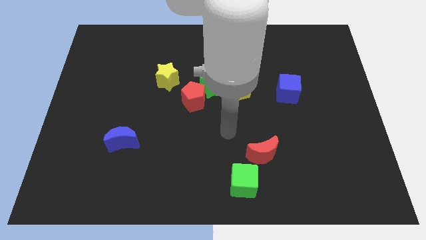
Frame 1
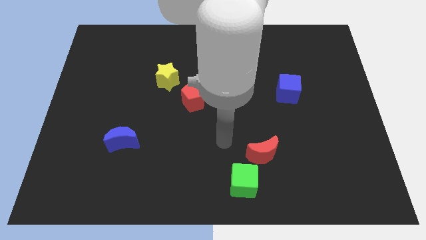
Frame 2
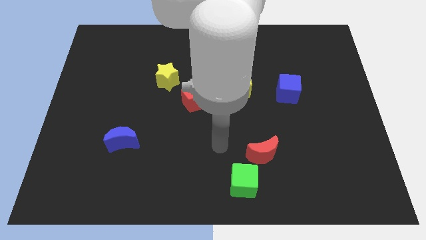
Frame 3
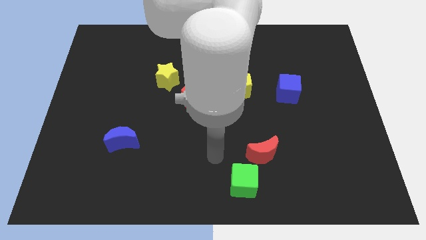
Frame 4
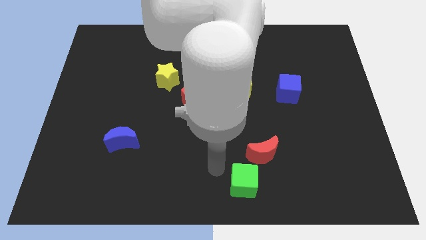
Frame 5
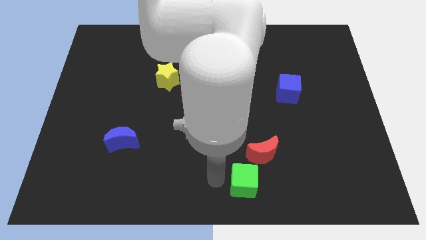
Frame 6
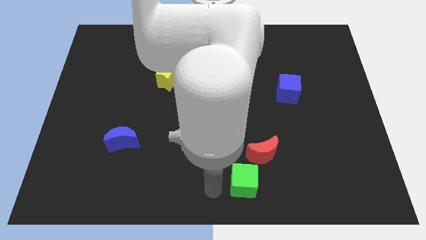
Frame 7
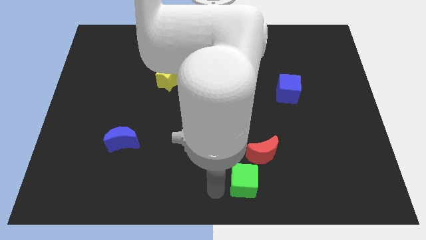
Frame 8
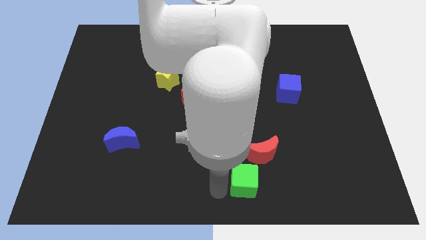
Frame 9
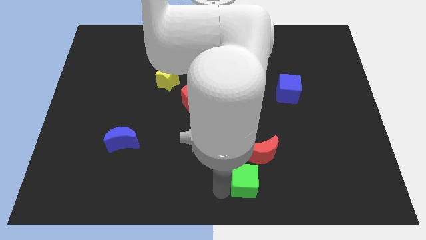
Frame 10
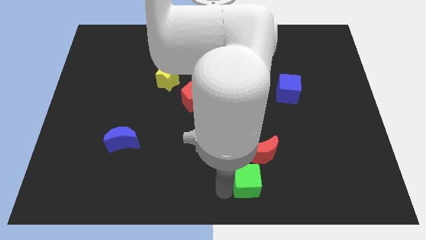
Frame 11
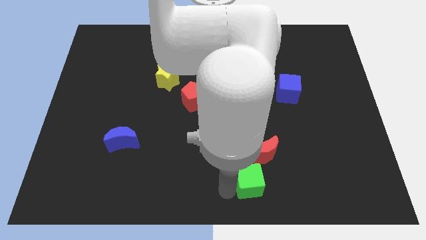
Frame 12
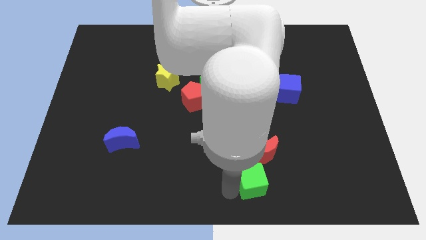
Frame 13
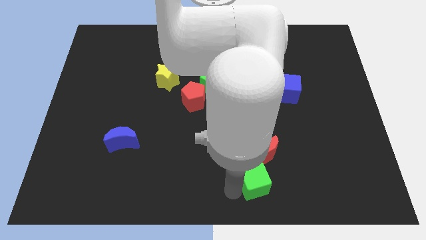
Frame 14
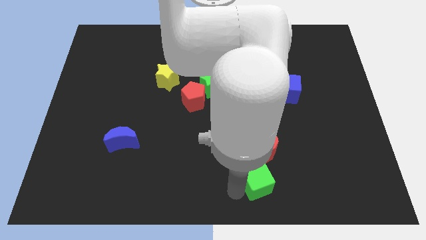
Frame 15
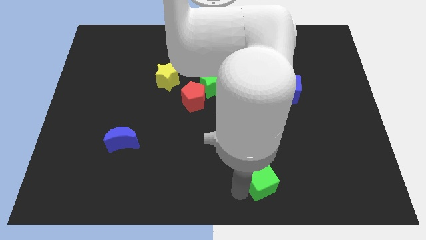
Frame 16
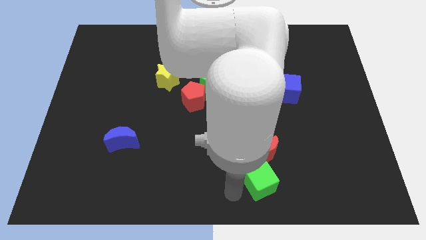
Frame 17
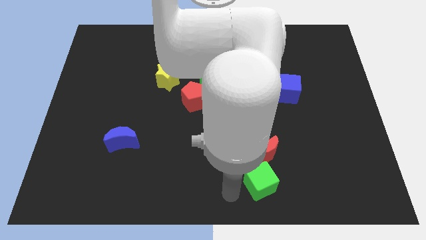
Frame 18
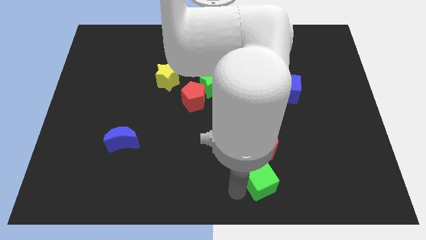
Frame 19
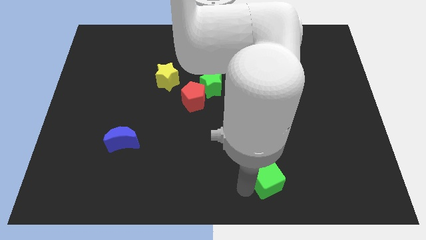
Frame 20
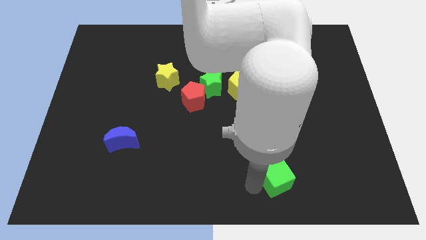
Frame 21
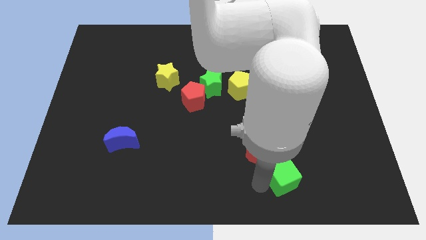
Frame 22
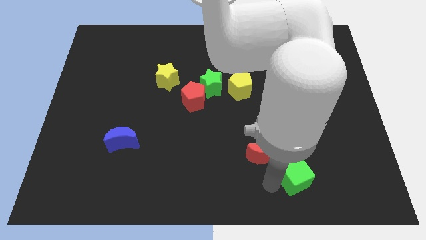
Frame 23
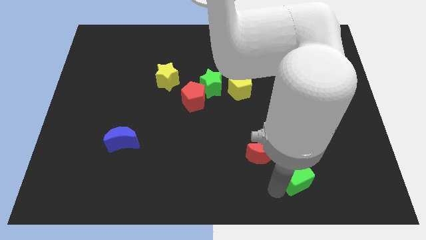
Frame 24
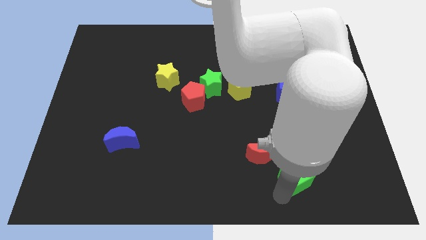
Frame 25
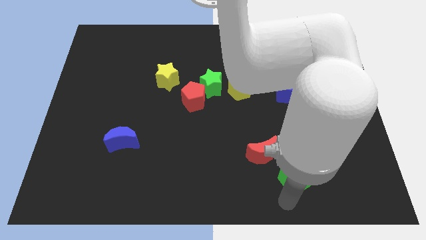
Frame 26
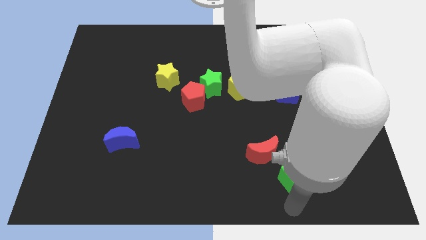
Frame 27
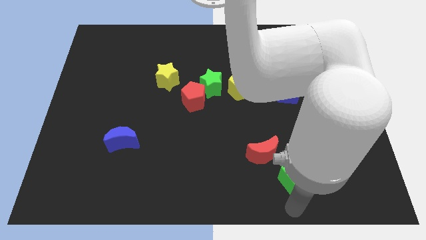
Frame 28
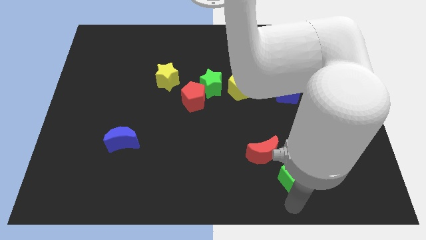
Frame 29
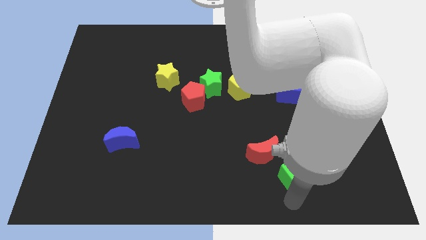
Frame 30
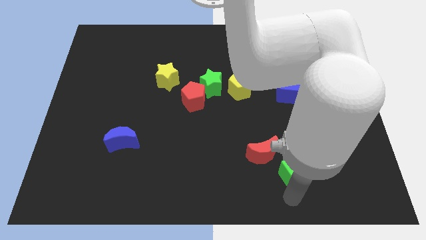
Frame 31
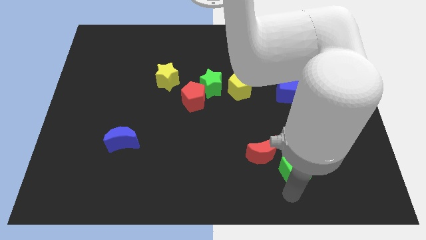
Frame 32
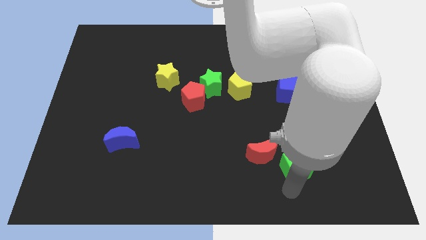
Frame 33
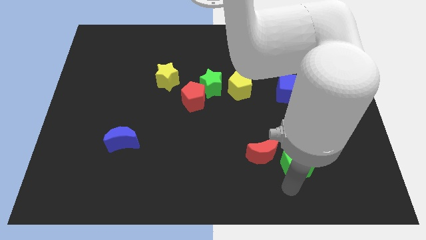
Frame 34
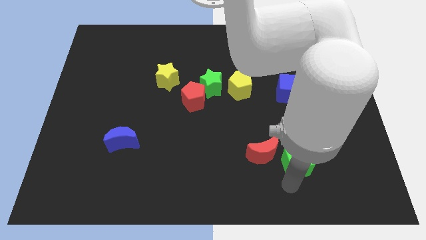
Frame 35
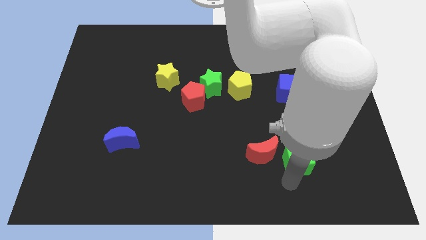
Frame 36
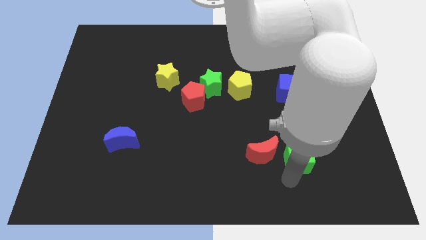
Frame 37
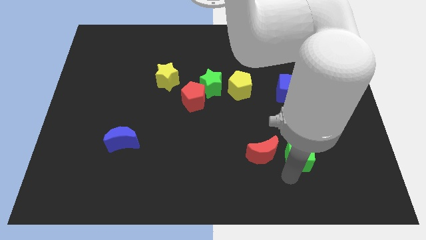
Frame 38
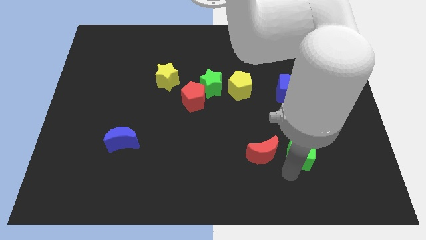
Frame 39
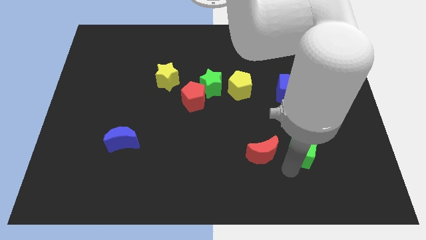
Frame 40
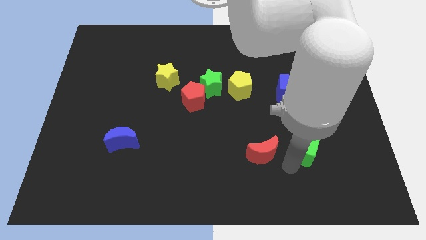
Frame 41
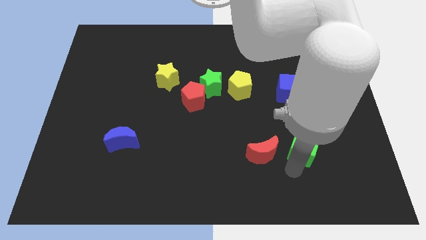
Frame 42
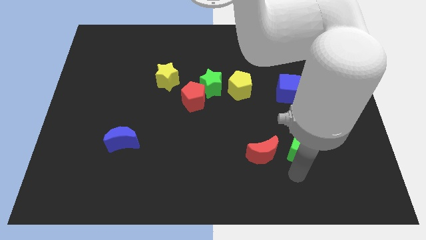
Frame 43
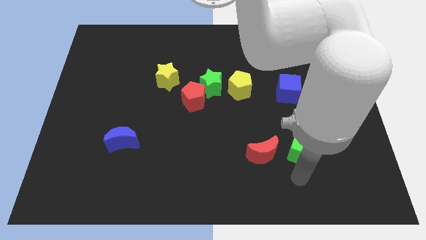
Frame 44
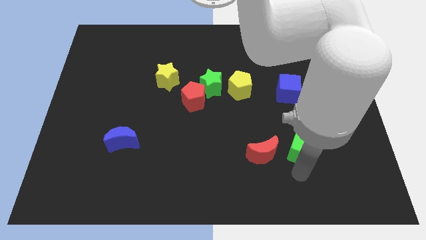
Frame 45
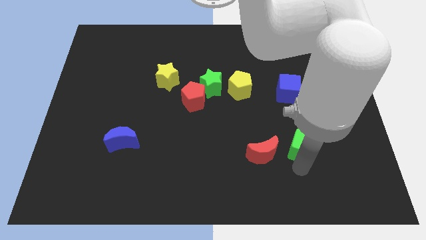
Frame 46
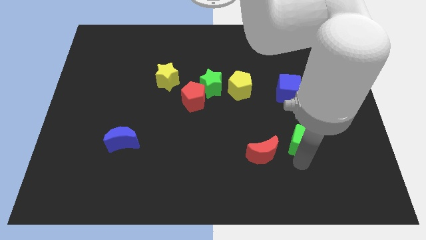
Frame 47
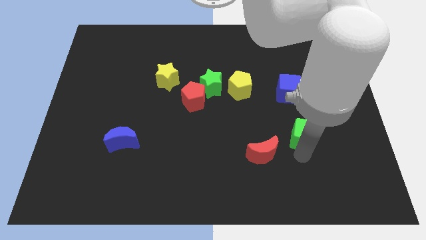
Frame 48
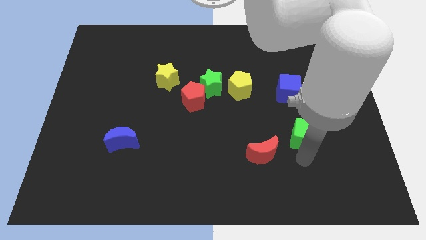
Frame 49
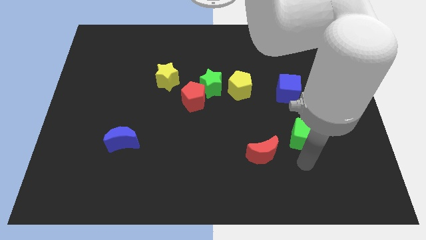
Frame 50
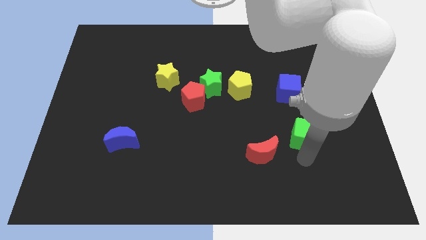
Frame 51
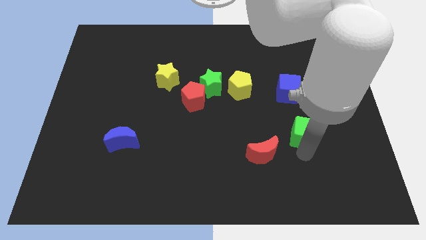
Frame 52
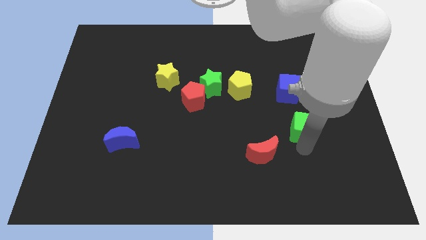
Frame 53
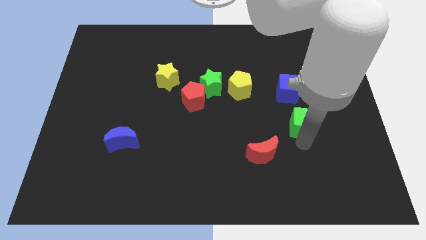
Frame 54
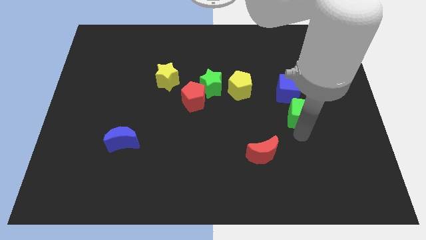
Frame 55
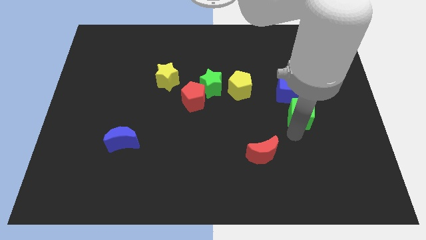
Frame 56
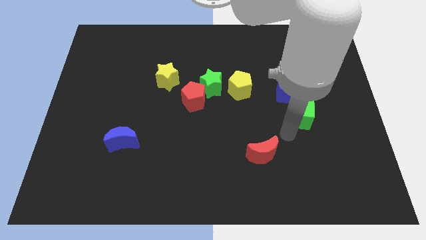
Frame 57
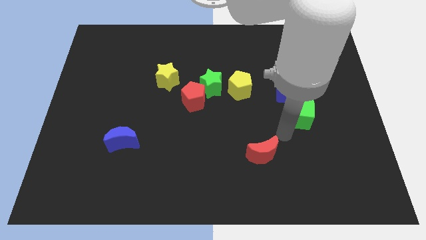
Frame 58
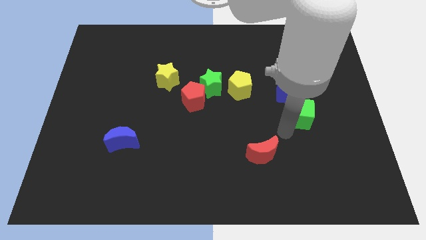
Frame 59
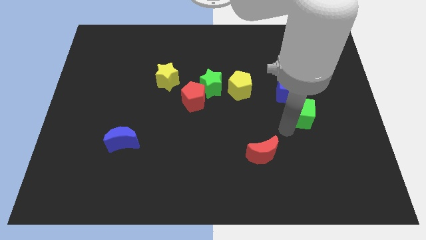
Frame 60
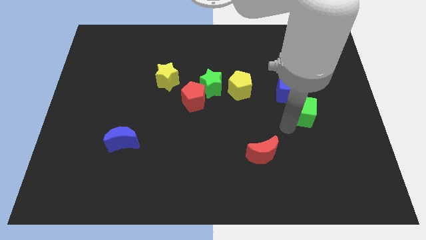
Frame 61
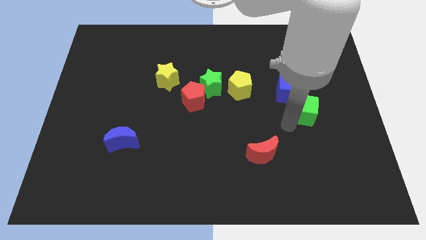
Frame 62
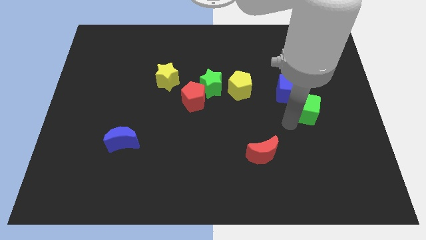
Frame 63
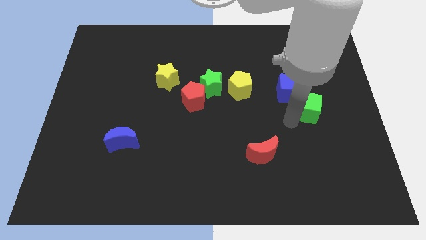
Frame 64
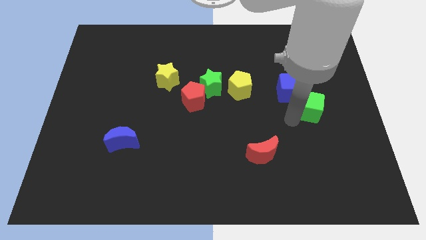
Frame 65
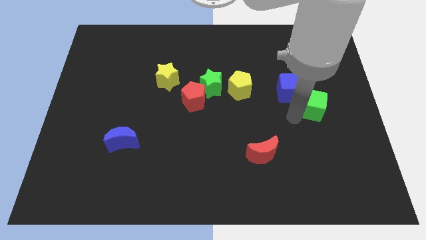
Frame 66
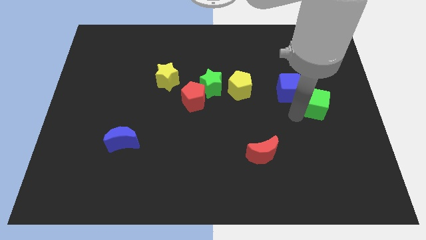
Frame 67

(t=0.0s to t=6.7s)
move the green cube to the right of the blue cube

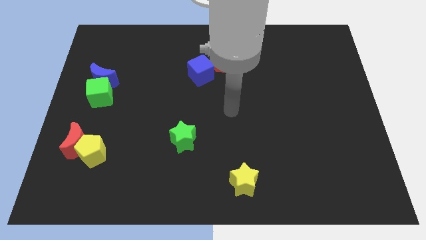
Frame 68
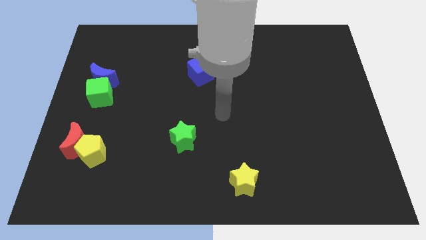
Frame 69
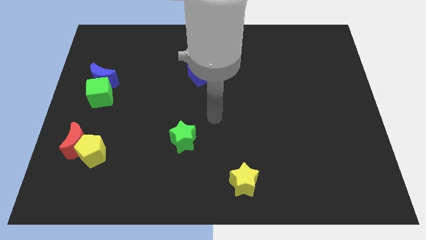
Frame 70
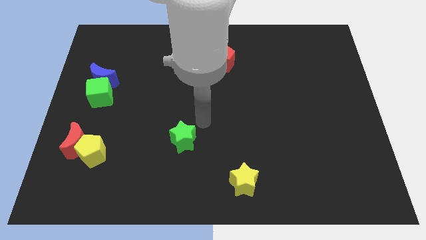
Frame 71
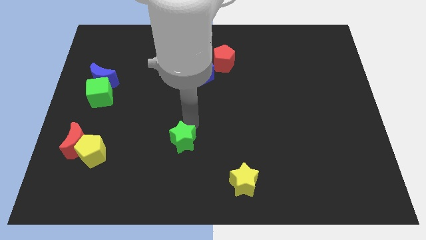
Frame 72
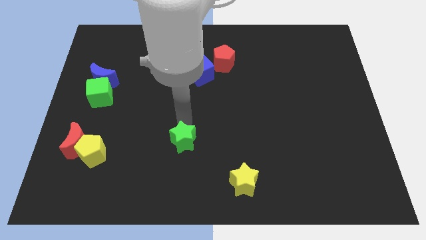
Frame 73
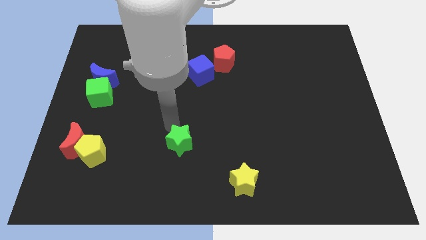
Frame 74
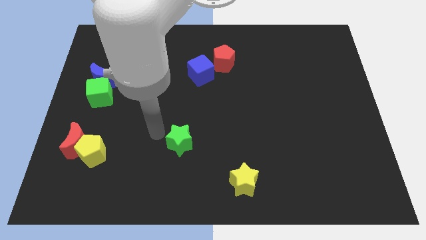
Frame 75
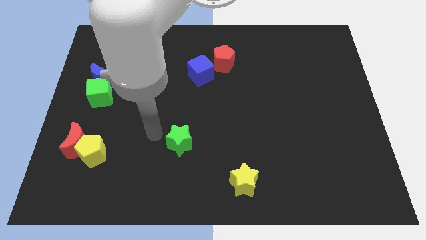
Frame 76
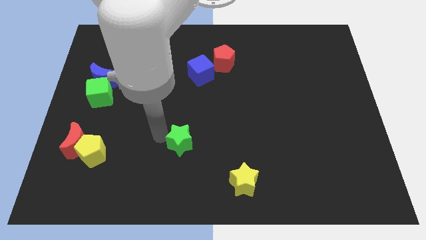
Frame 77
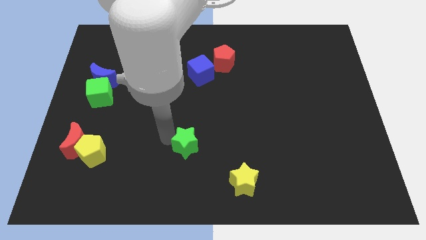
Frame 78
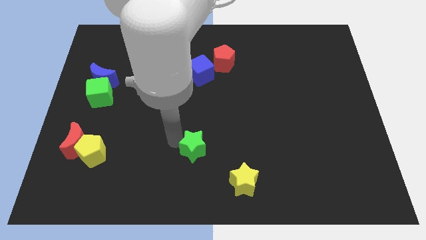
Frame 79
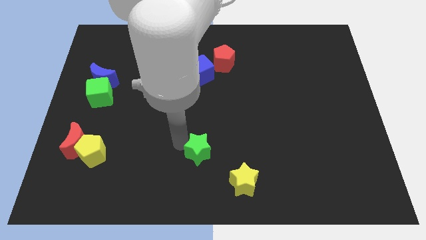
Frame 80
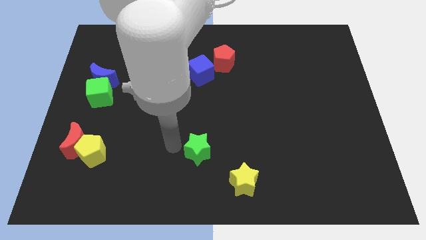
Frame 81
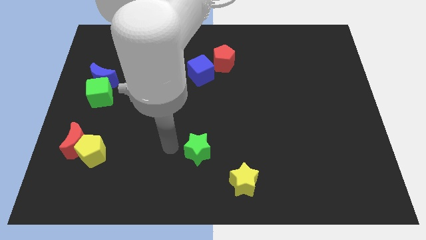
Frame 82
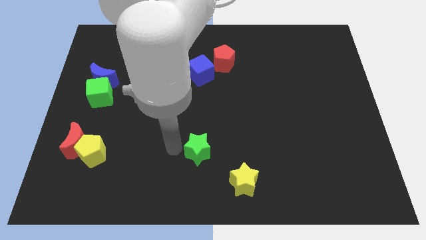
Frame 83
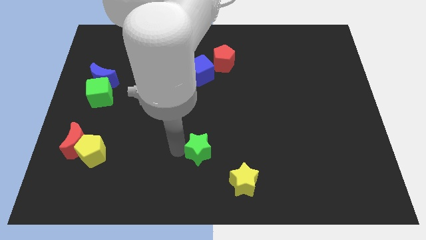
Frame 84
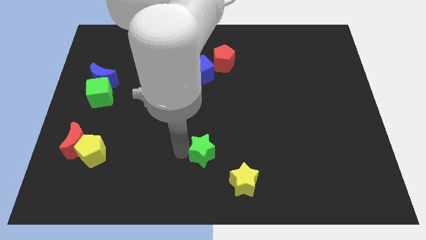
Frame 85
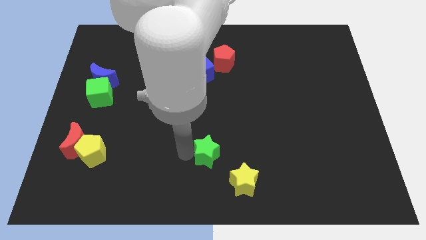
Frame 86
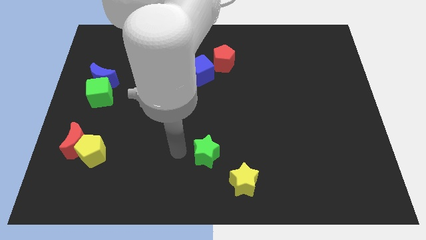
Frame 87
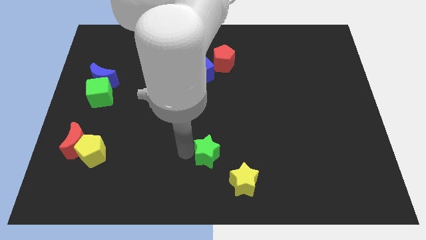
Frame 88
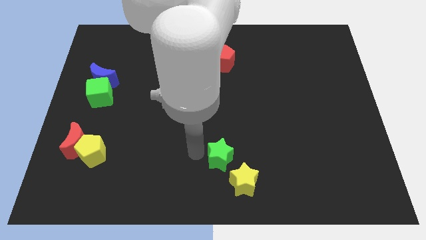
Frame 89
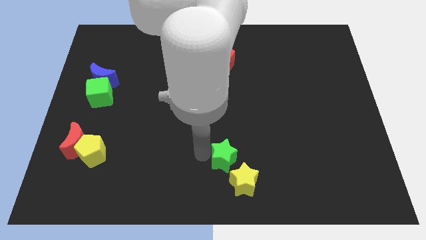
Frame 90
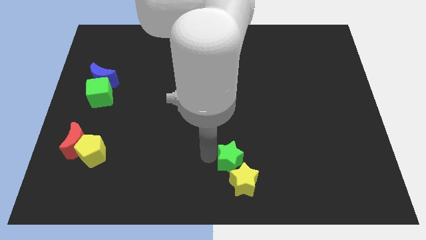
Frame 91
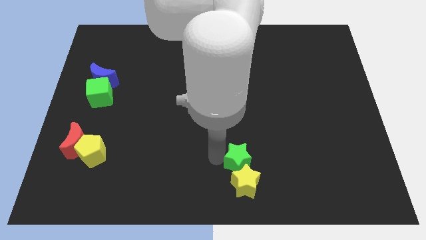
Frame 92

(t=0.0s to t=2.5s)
push the green star to the top right side of the yellow star
